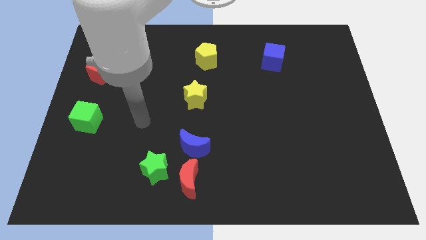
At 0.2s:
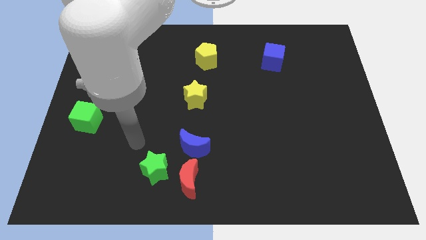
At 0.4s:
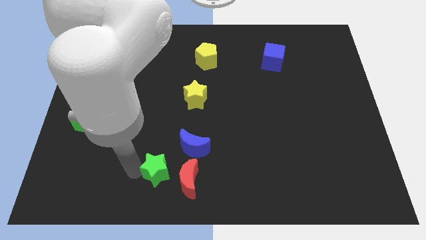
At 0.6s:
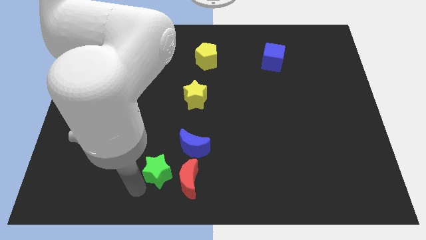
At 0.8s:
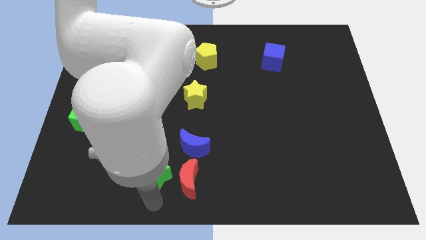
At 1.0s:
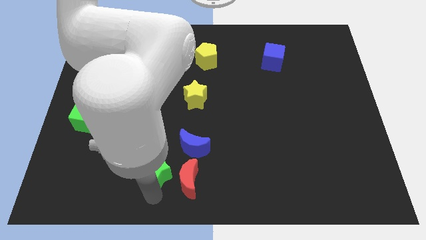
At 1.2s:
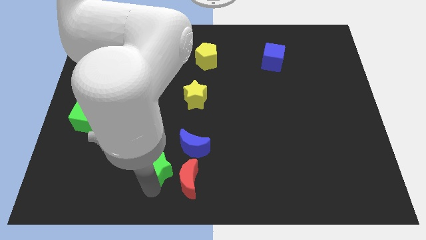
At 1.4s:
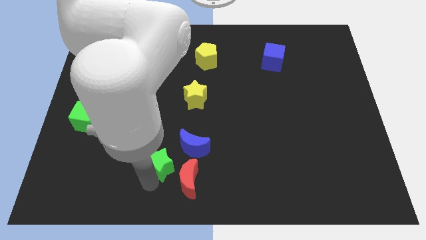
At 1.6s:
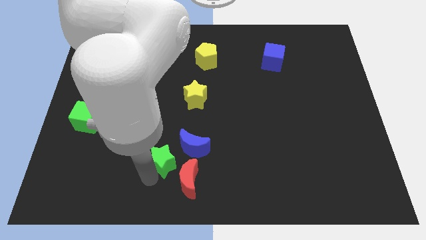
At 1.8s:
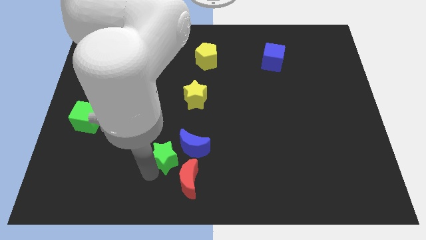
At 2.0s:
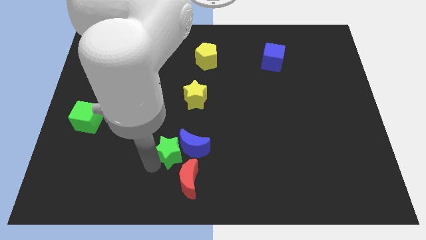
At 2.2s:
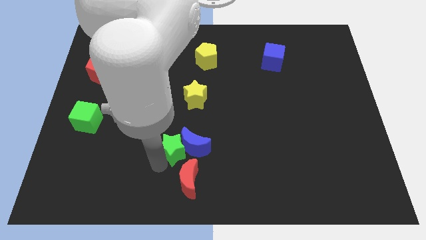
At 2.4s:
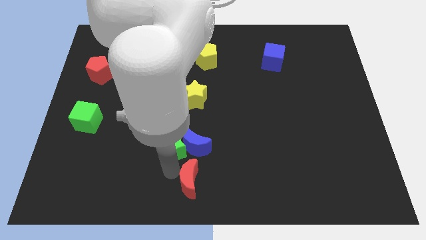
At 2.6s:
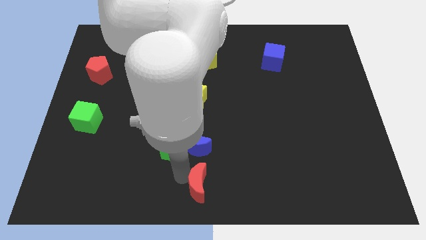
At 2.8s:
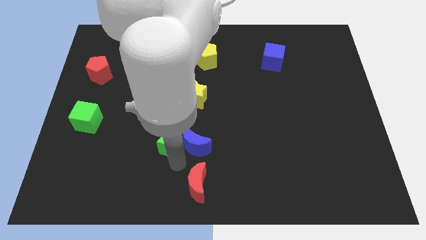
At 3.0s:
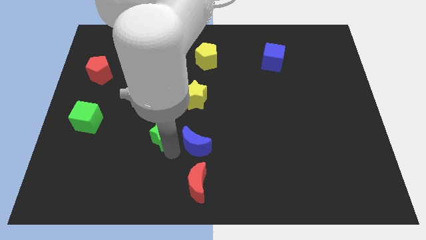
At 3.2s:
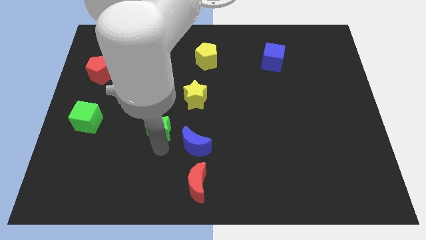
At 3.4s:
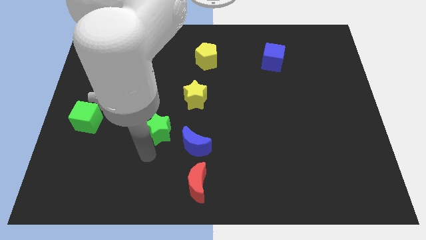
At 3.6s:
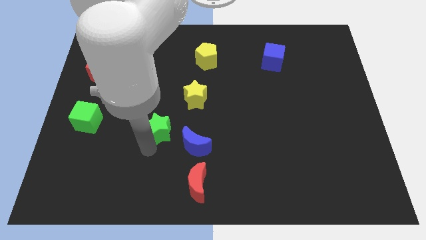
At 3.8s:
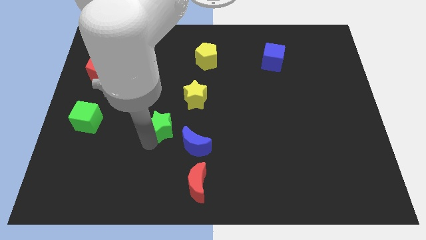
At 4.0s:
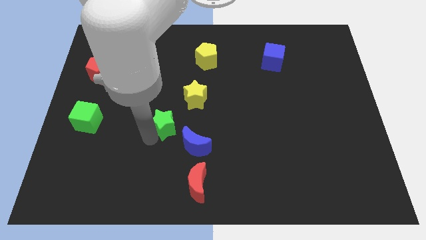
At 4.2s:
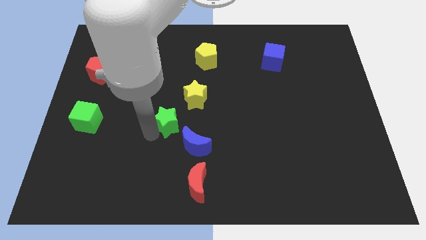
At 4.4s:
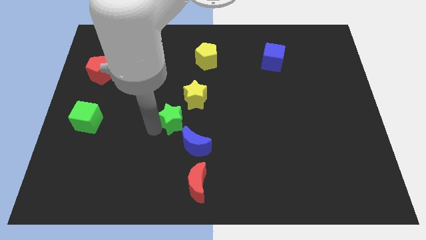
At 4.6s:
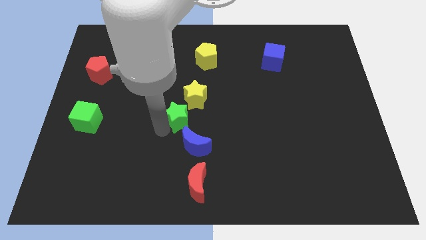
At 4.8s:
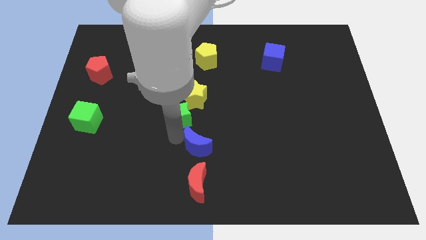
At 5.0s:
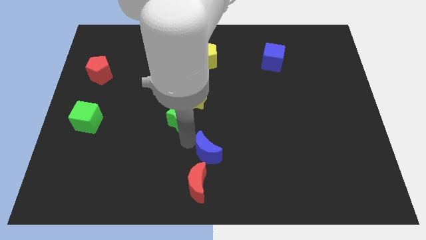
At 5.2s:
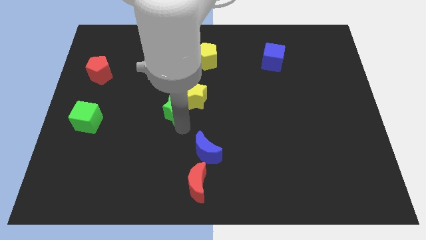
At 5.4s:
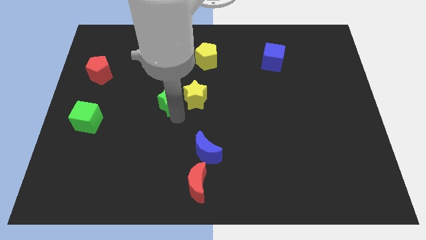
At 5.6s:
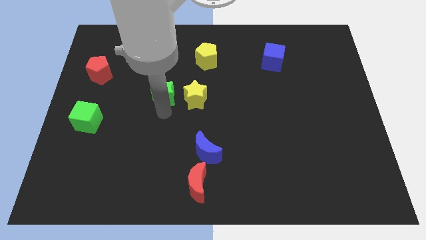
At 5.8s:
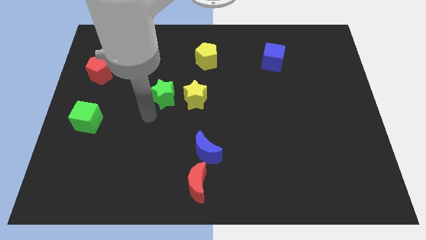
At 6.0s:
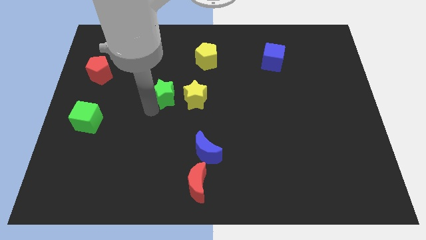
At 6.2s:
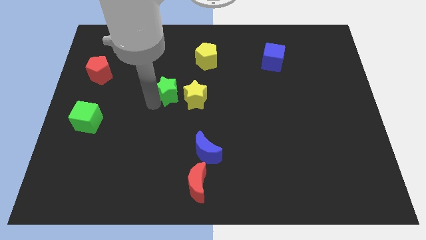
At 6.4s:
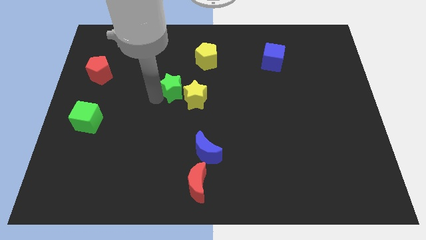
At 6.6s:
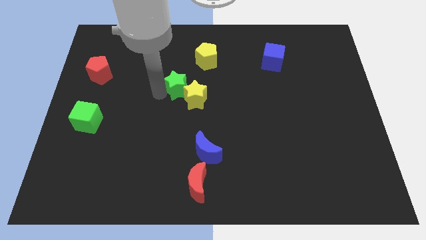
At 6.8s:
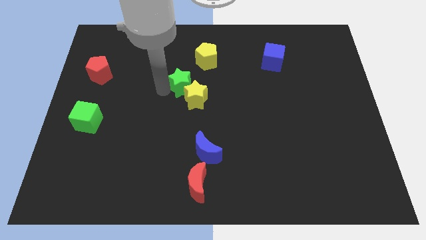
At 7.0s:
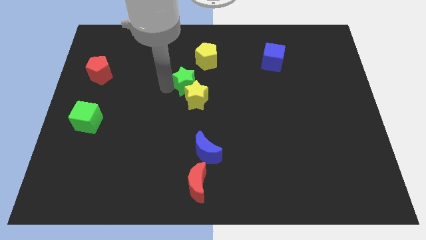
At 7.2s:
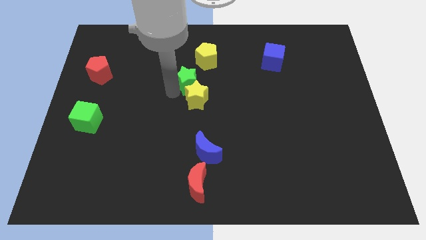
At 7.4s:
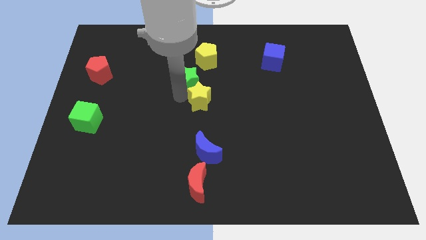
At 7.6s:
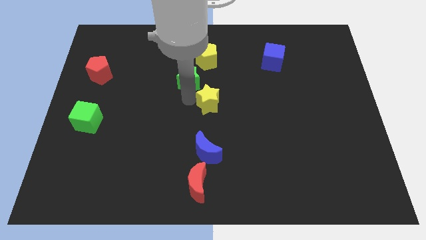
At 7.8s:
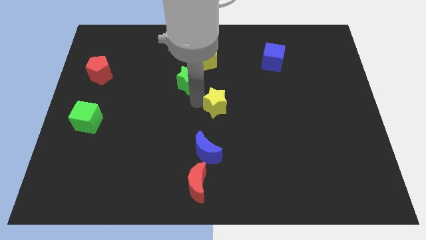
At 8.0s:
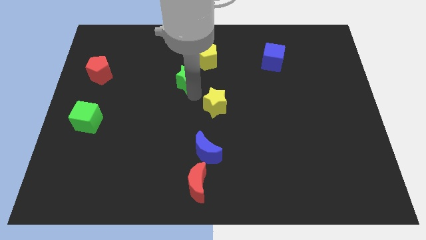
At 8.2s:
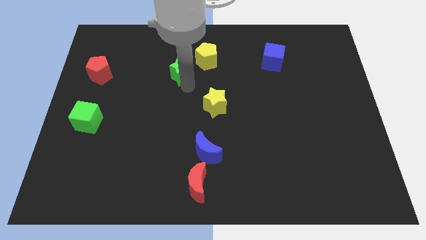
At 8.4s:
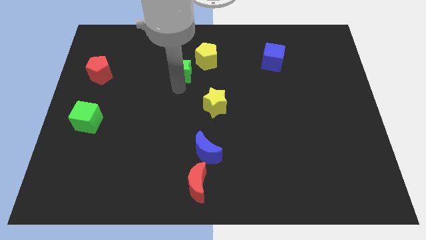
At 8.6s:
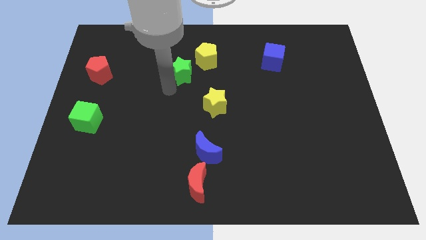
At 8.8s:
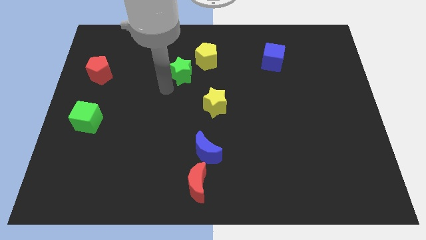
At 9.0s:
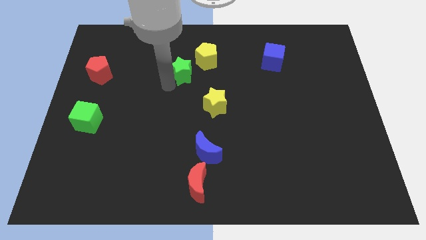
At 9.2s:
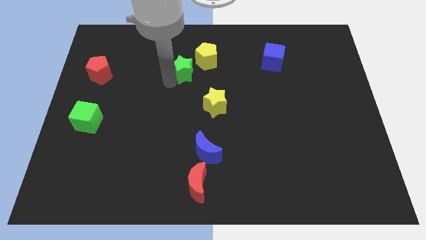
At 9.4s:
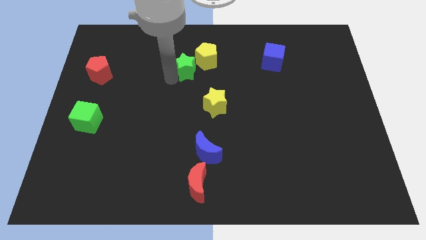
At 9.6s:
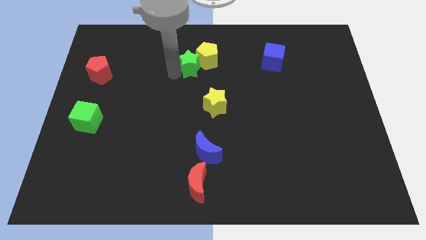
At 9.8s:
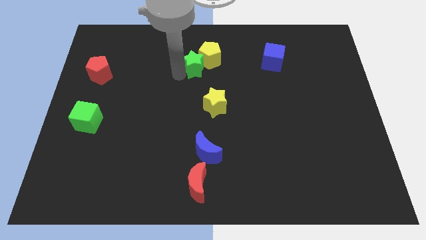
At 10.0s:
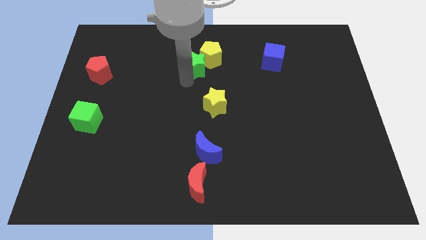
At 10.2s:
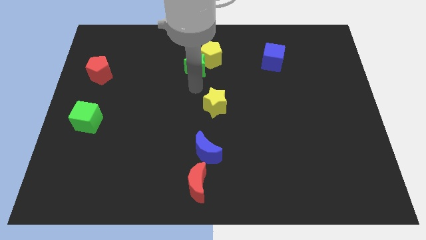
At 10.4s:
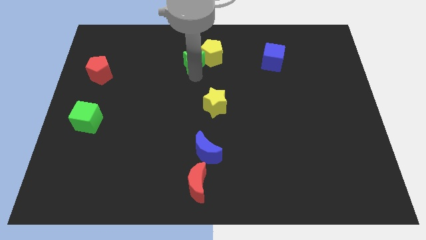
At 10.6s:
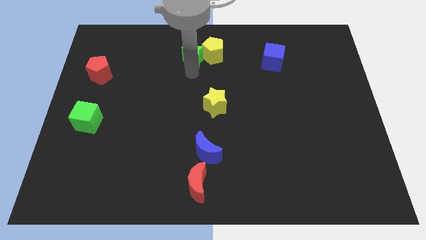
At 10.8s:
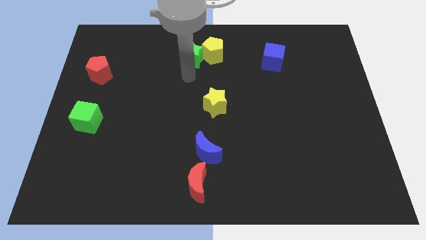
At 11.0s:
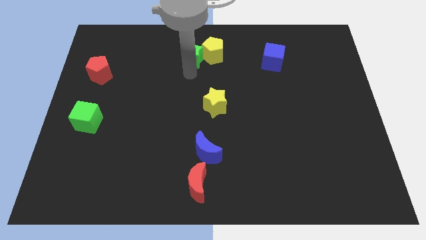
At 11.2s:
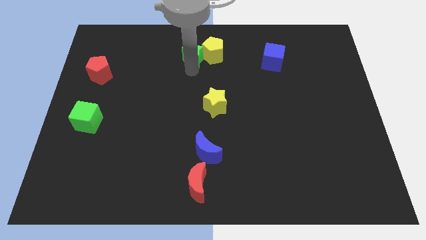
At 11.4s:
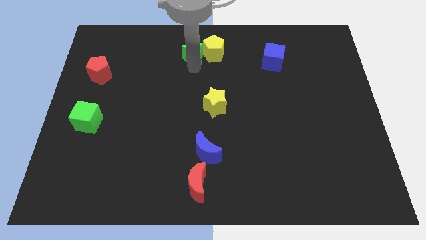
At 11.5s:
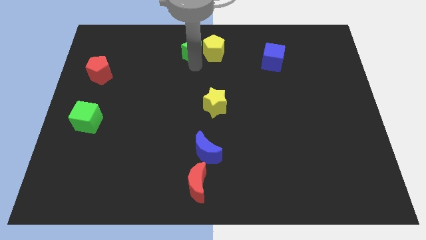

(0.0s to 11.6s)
move the green star to the top side
